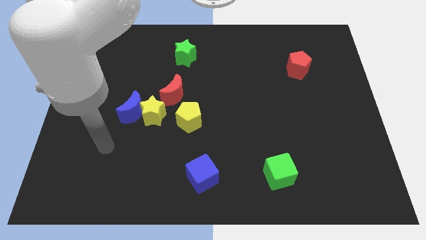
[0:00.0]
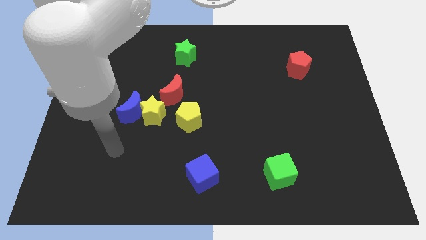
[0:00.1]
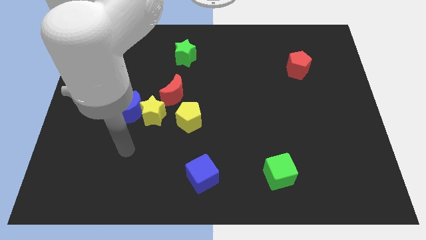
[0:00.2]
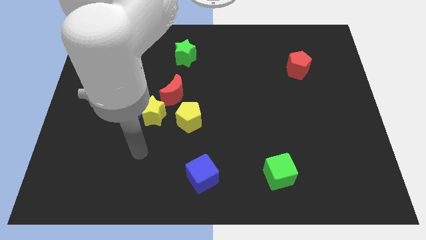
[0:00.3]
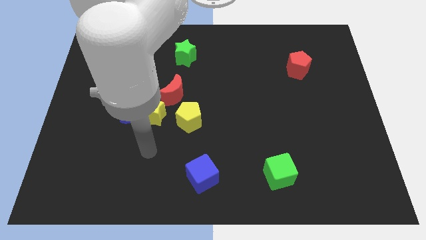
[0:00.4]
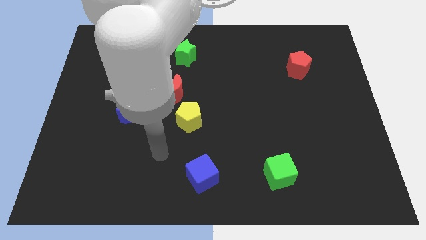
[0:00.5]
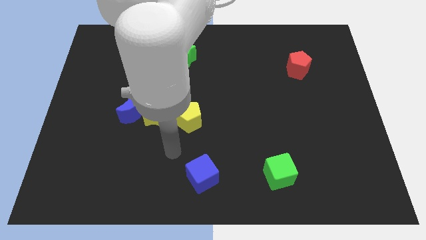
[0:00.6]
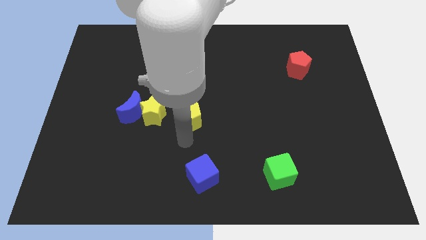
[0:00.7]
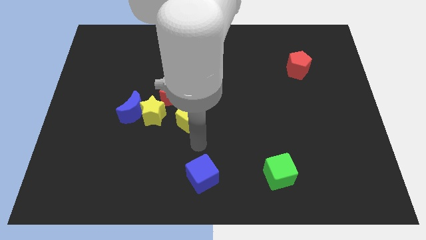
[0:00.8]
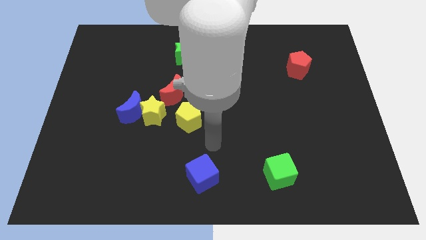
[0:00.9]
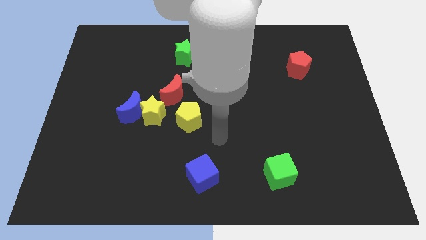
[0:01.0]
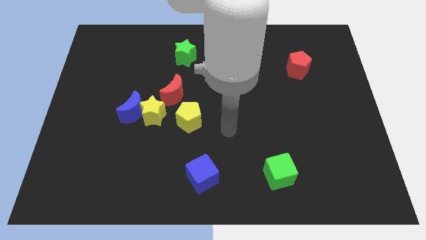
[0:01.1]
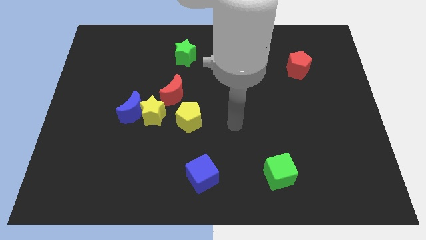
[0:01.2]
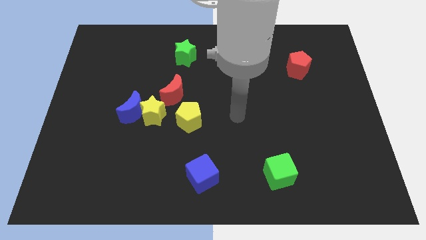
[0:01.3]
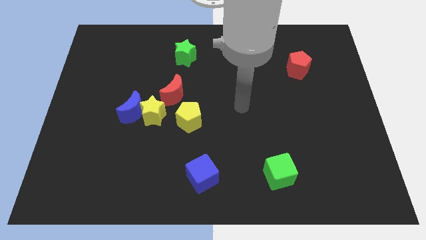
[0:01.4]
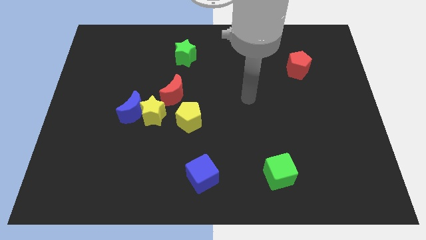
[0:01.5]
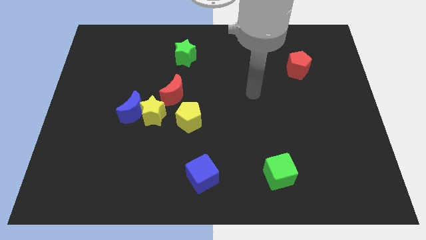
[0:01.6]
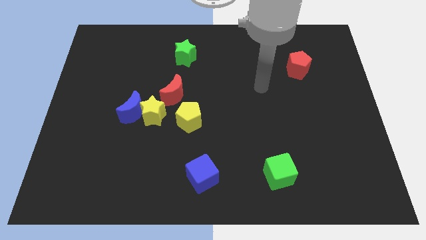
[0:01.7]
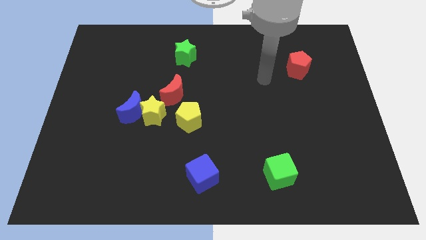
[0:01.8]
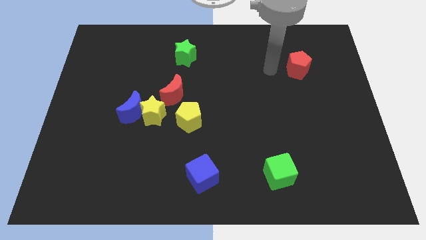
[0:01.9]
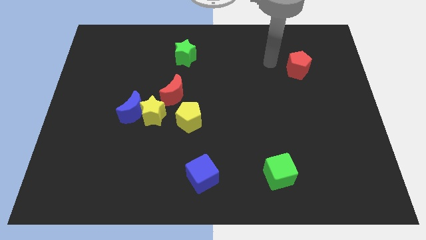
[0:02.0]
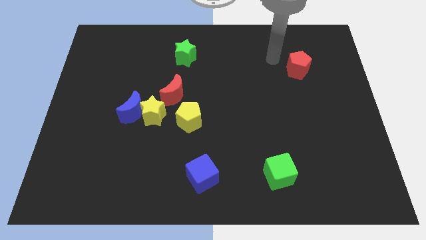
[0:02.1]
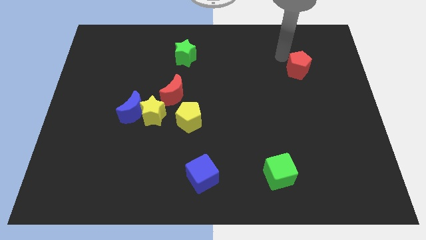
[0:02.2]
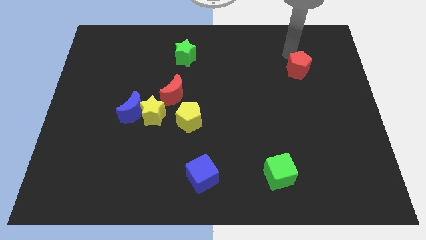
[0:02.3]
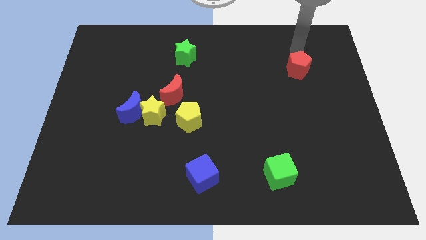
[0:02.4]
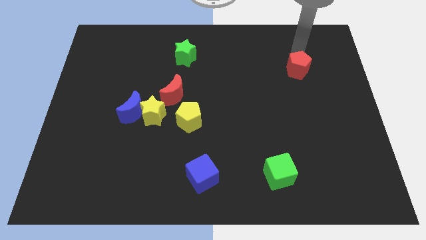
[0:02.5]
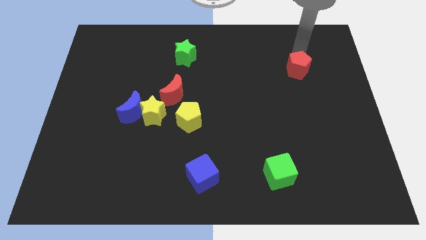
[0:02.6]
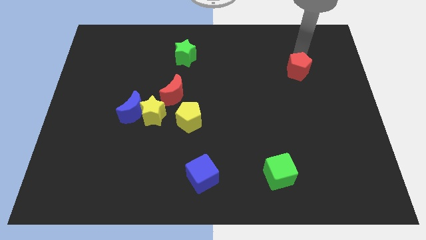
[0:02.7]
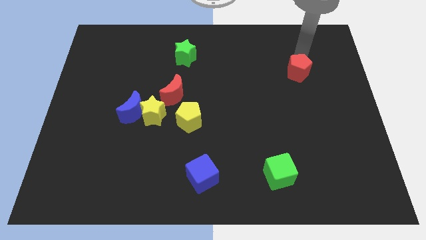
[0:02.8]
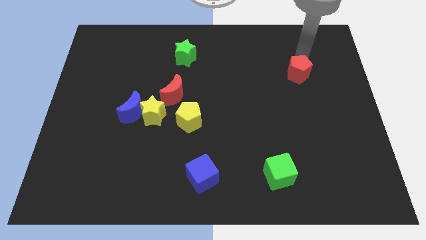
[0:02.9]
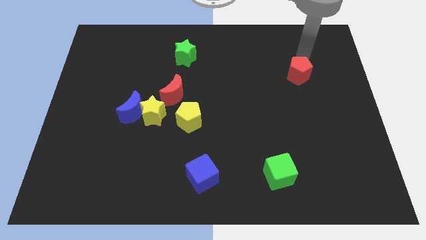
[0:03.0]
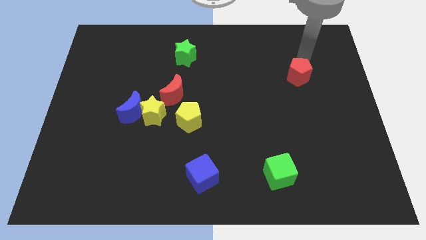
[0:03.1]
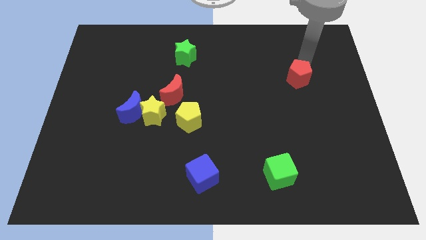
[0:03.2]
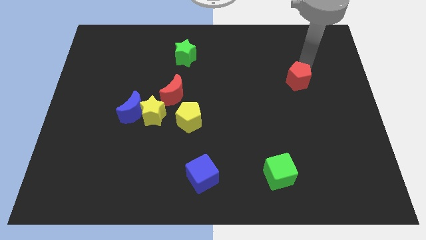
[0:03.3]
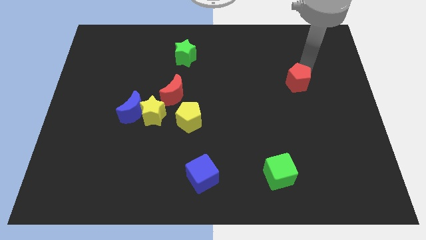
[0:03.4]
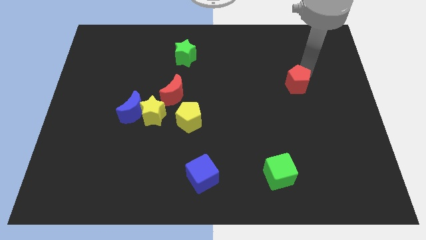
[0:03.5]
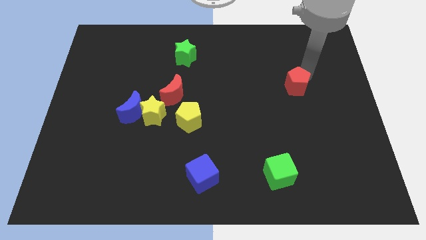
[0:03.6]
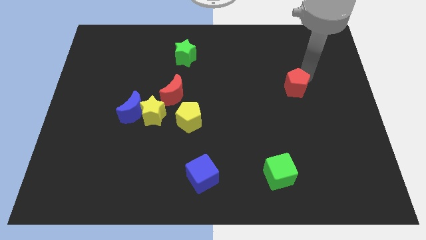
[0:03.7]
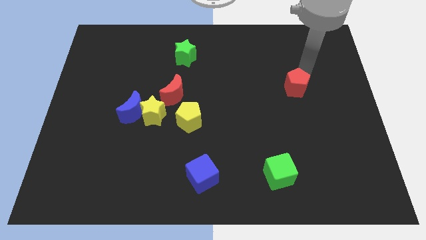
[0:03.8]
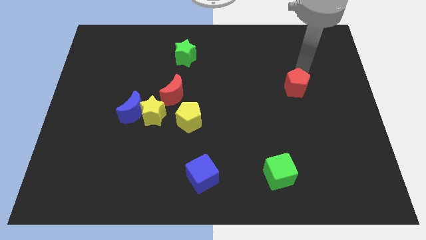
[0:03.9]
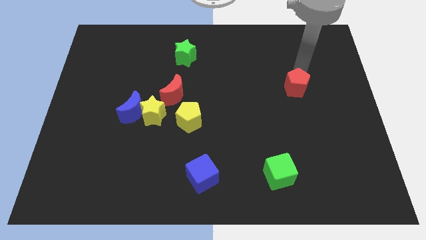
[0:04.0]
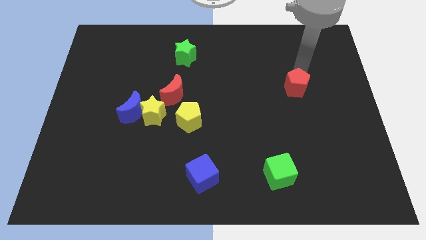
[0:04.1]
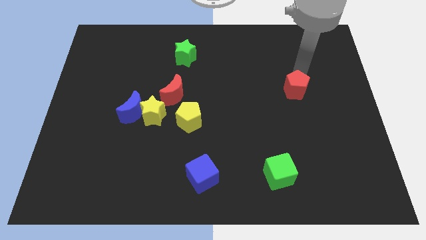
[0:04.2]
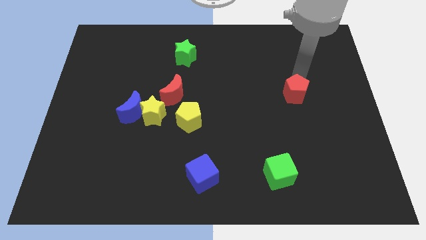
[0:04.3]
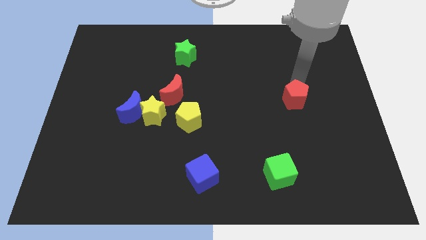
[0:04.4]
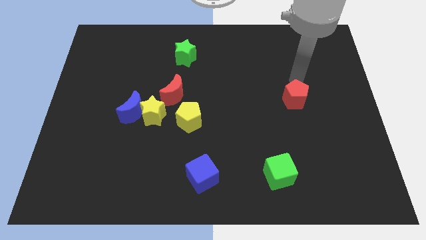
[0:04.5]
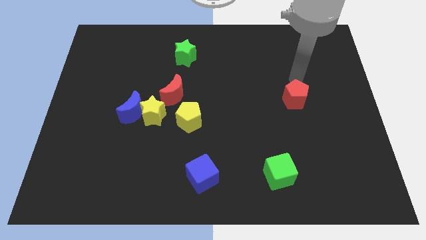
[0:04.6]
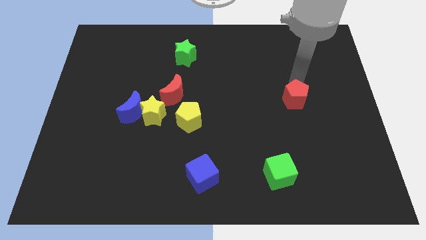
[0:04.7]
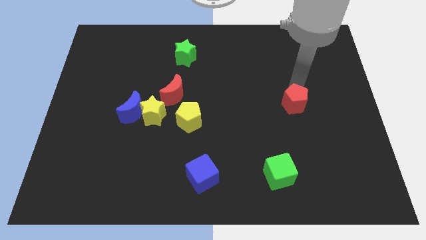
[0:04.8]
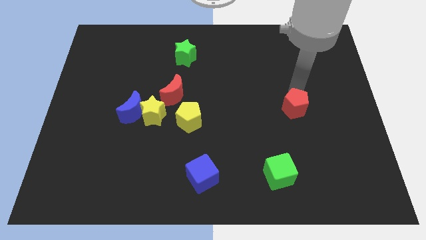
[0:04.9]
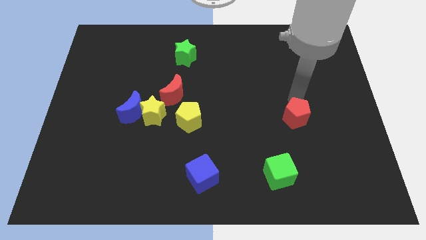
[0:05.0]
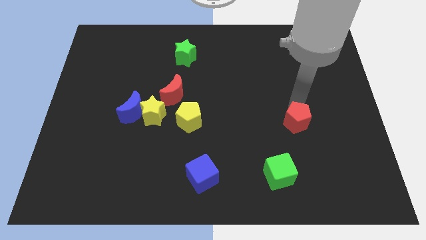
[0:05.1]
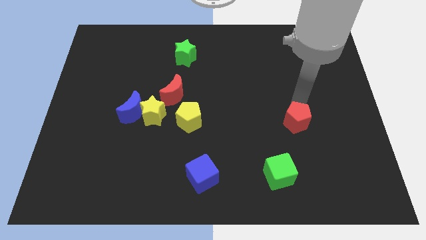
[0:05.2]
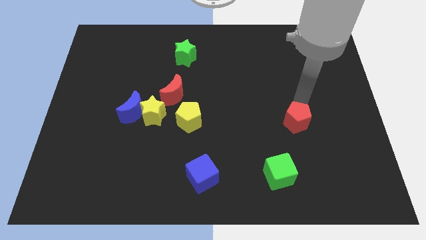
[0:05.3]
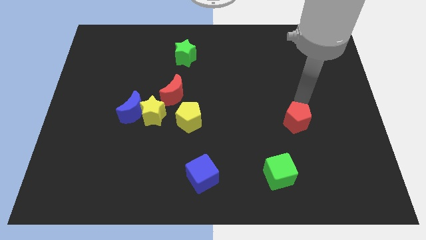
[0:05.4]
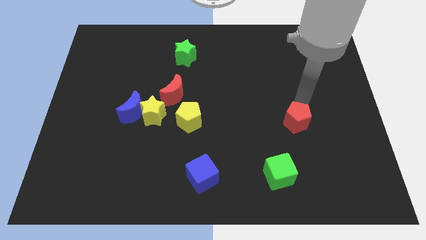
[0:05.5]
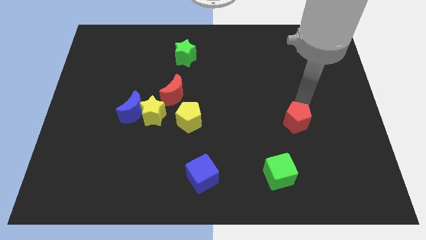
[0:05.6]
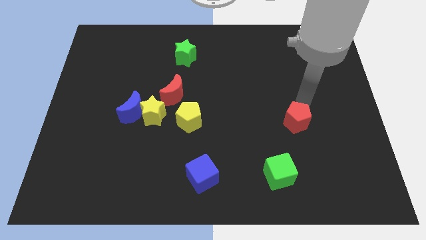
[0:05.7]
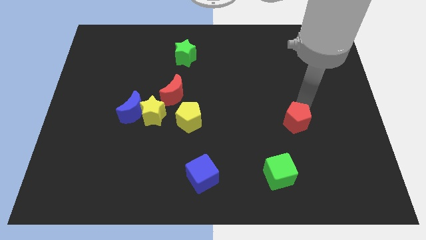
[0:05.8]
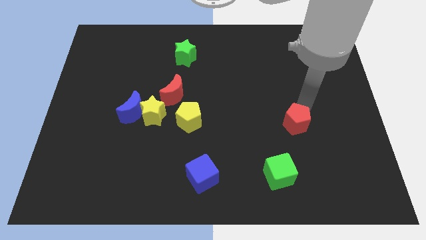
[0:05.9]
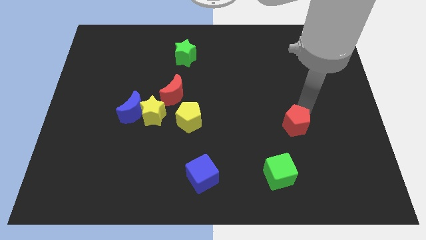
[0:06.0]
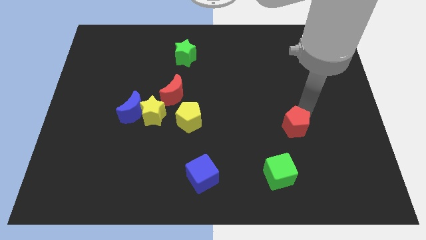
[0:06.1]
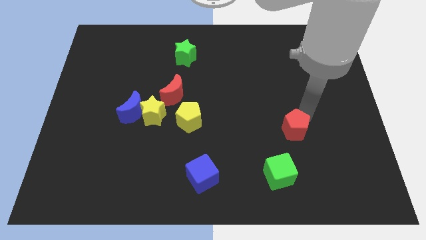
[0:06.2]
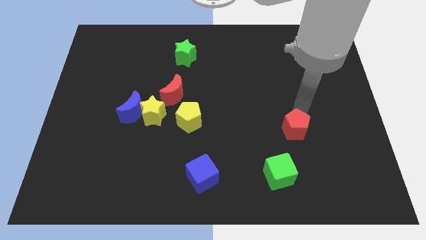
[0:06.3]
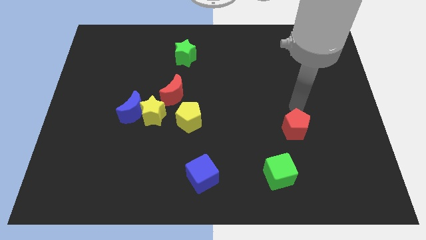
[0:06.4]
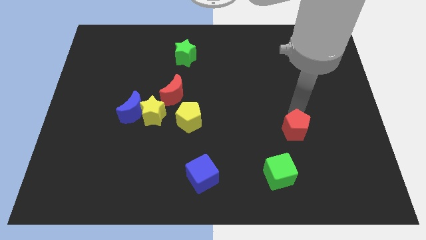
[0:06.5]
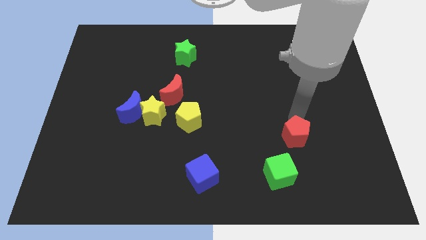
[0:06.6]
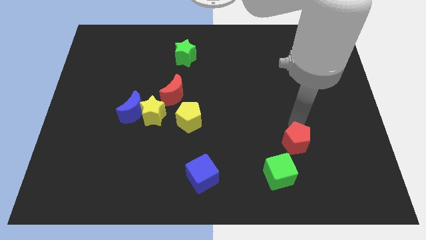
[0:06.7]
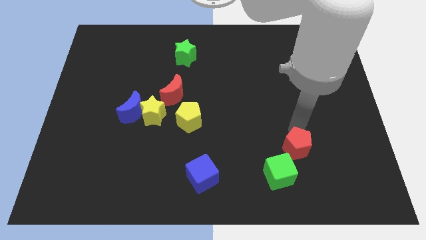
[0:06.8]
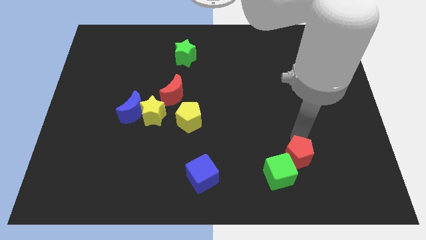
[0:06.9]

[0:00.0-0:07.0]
move the red pentagon to the green cube

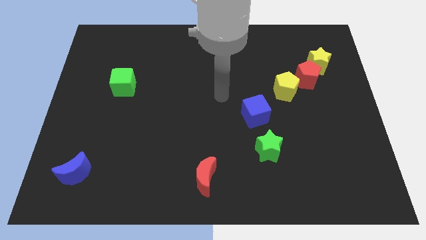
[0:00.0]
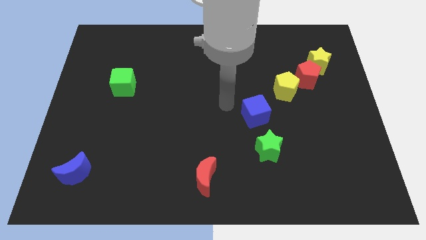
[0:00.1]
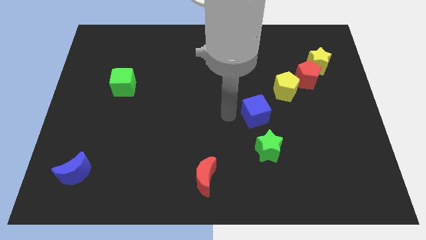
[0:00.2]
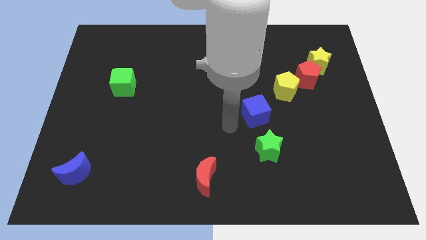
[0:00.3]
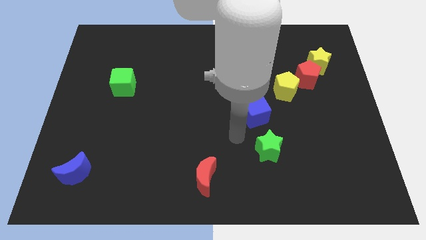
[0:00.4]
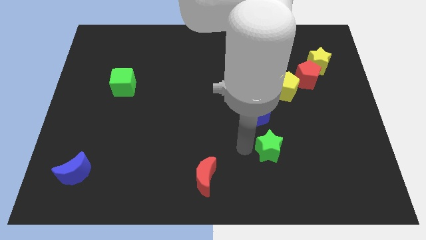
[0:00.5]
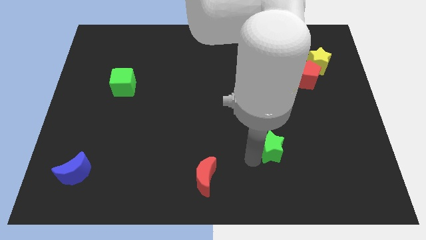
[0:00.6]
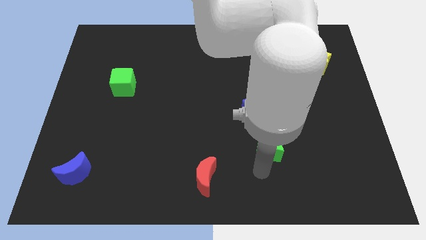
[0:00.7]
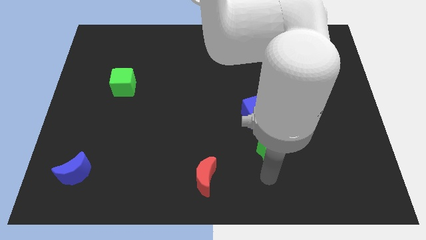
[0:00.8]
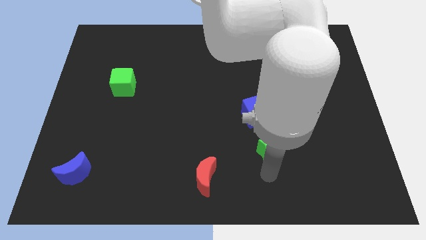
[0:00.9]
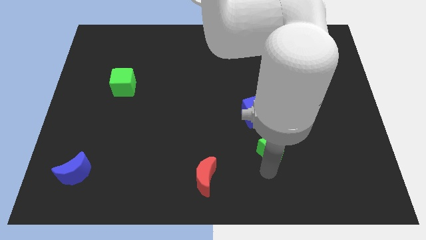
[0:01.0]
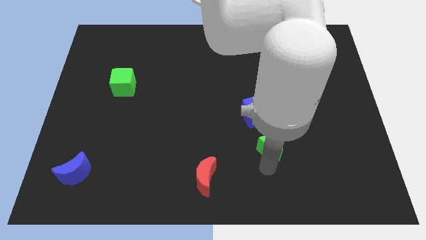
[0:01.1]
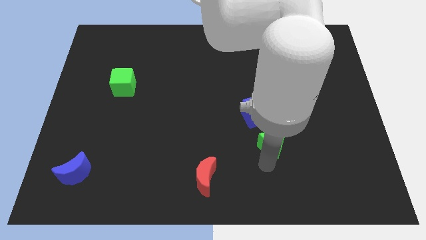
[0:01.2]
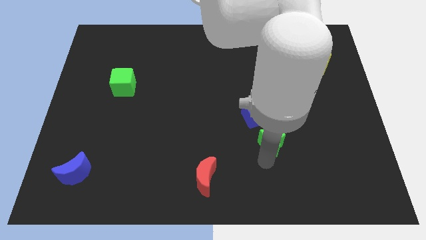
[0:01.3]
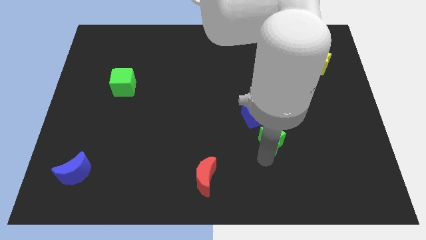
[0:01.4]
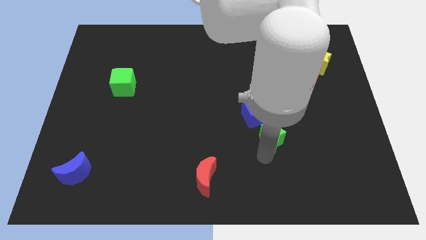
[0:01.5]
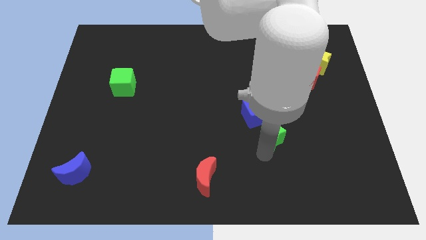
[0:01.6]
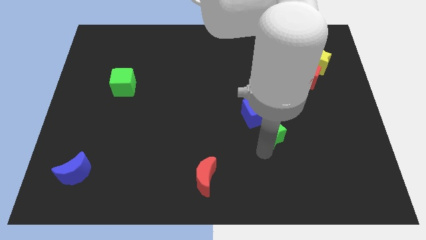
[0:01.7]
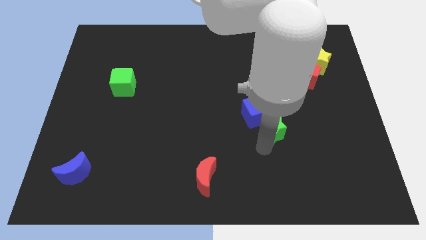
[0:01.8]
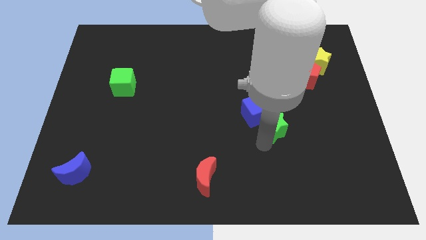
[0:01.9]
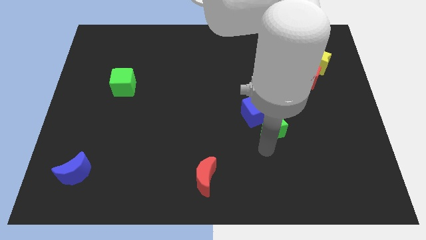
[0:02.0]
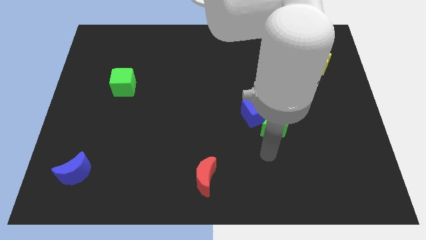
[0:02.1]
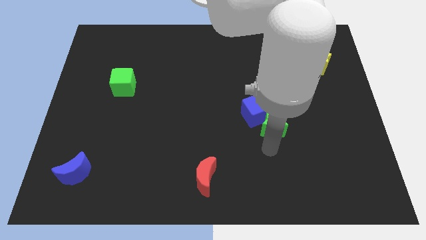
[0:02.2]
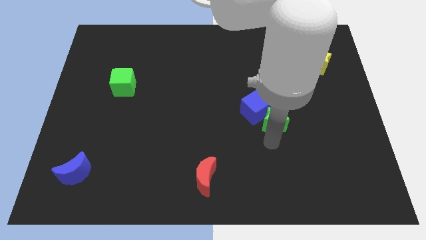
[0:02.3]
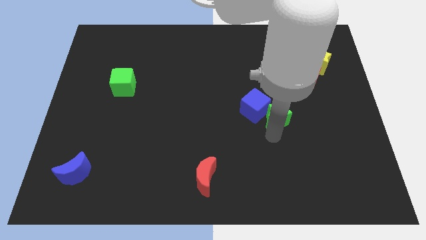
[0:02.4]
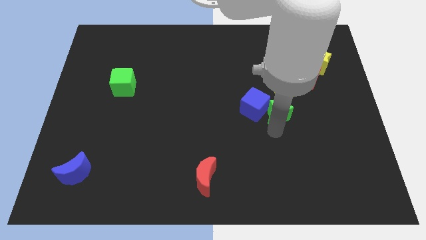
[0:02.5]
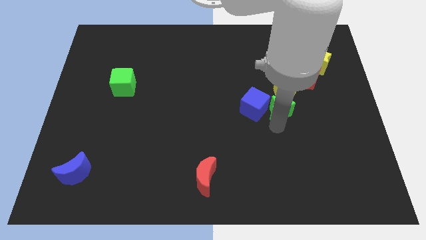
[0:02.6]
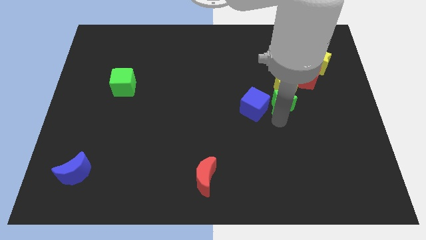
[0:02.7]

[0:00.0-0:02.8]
push the green star to the yellow pentagon
